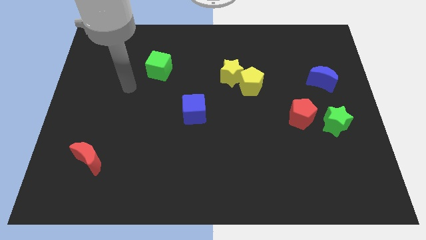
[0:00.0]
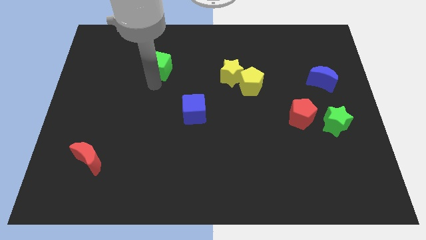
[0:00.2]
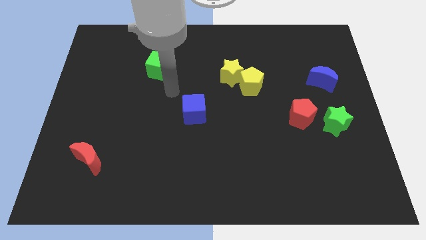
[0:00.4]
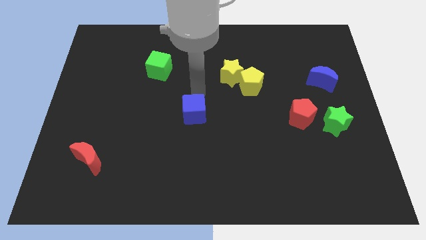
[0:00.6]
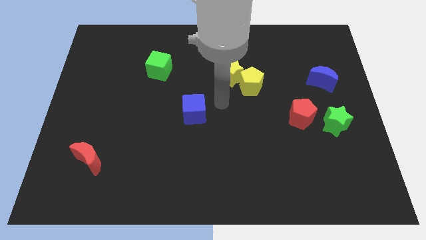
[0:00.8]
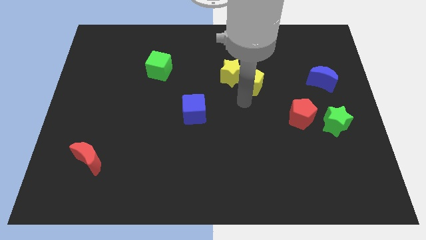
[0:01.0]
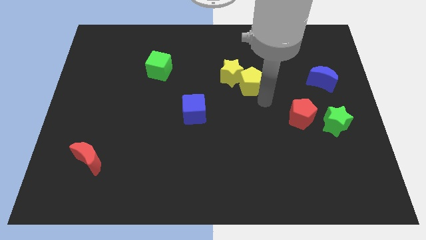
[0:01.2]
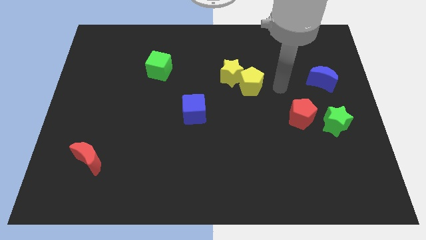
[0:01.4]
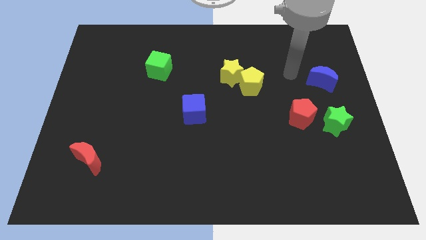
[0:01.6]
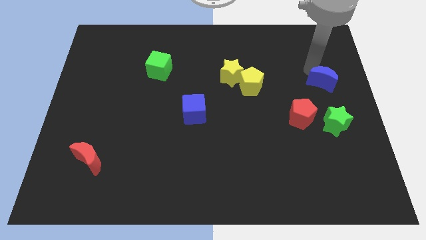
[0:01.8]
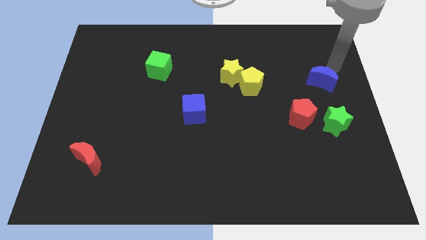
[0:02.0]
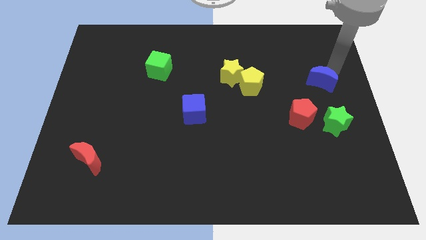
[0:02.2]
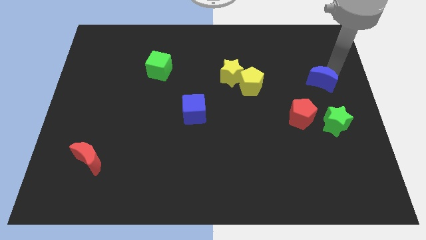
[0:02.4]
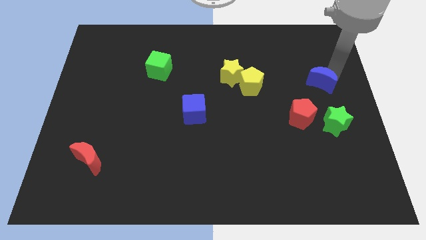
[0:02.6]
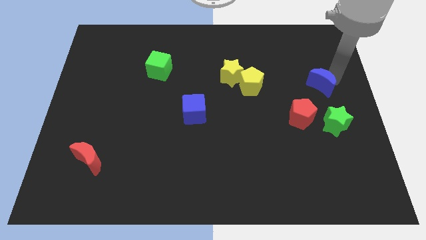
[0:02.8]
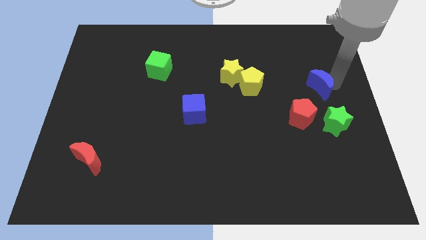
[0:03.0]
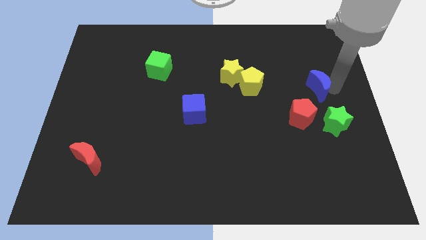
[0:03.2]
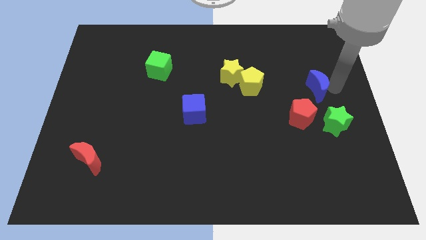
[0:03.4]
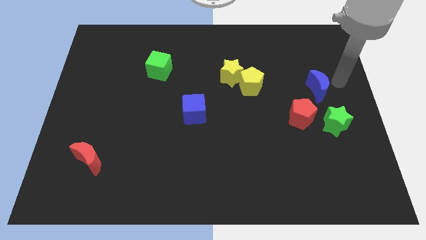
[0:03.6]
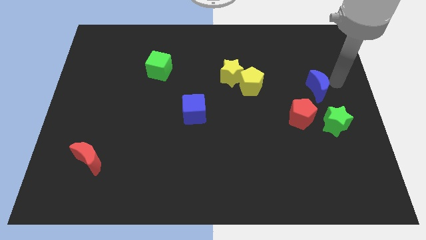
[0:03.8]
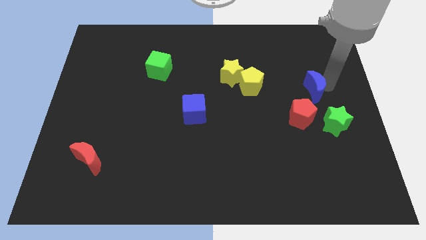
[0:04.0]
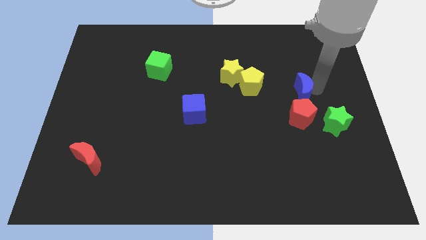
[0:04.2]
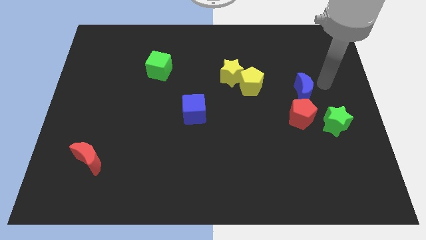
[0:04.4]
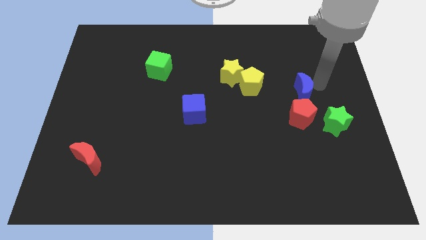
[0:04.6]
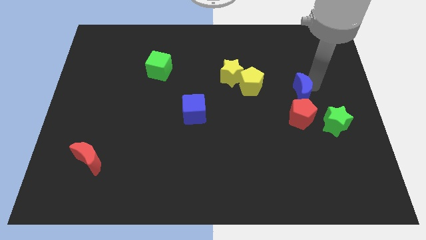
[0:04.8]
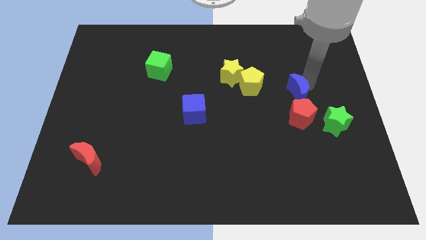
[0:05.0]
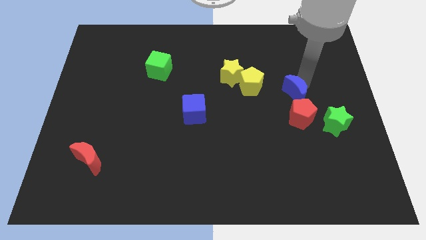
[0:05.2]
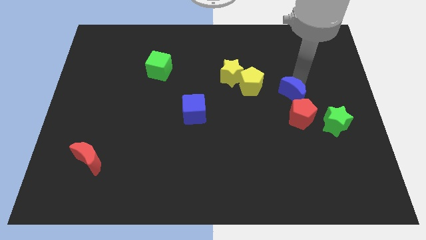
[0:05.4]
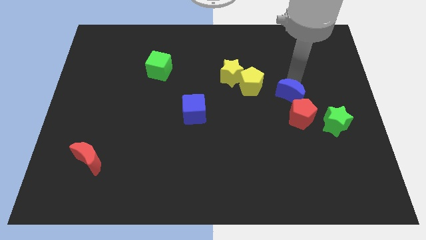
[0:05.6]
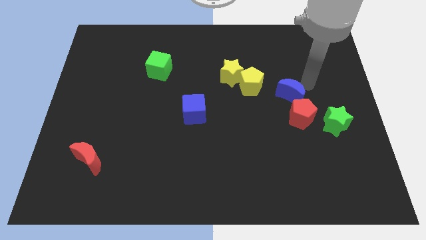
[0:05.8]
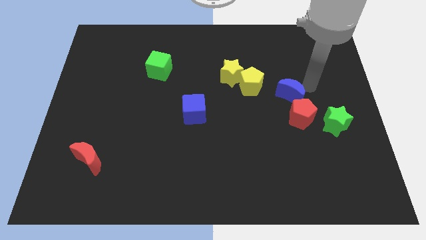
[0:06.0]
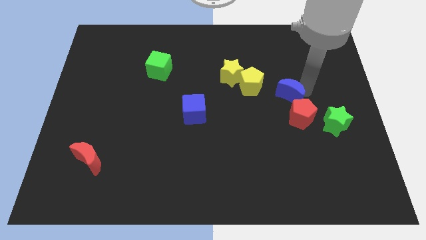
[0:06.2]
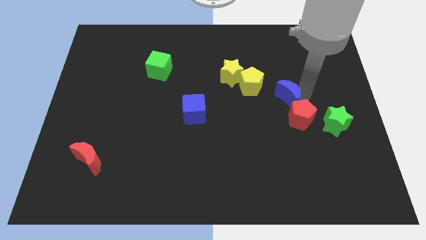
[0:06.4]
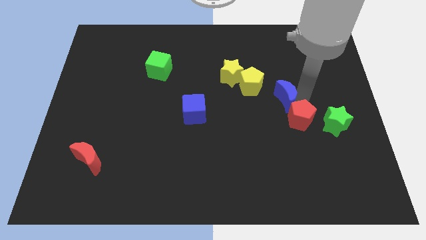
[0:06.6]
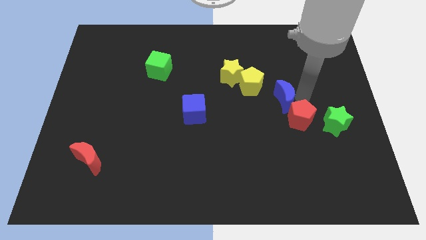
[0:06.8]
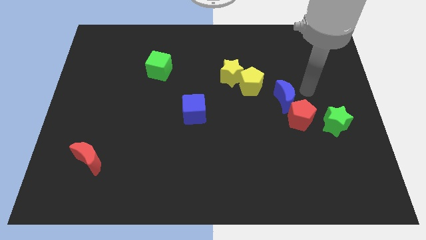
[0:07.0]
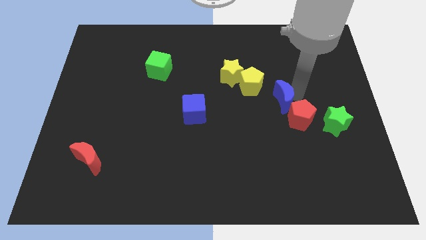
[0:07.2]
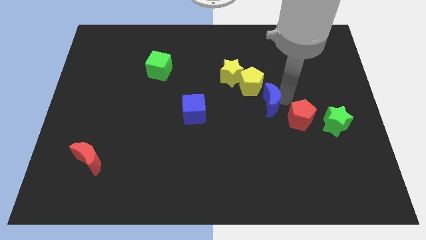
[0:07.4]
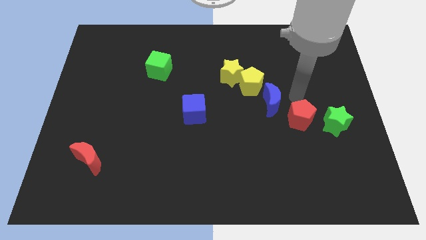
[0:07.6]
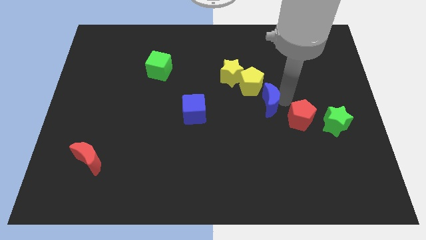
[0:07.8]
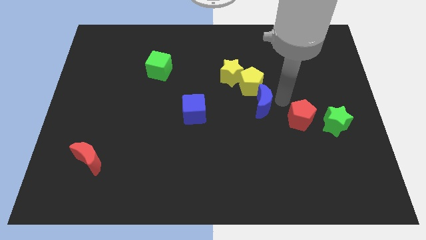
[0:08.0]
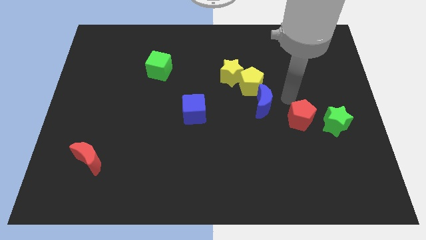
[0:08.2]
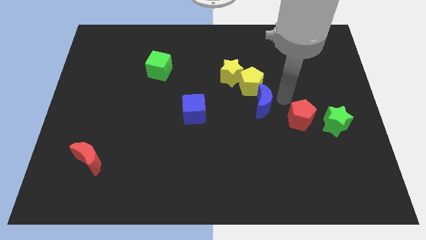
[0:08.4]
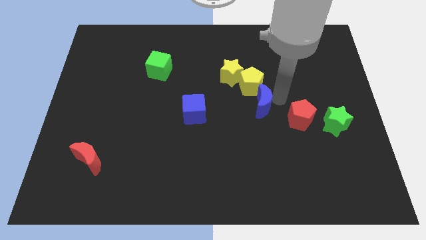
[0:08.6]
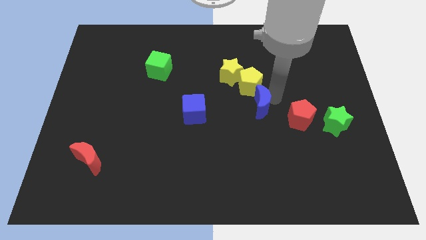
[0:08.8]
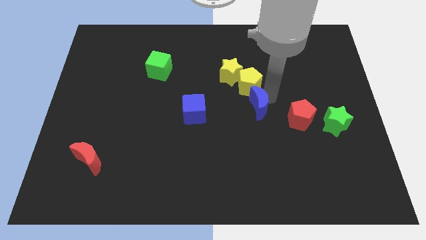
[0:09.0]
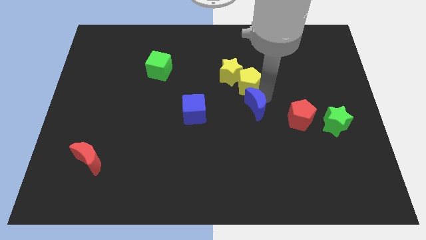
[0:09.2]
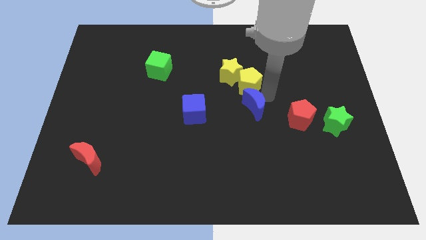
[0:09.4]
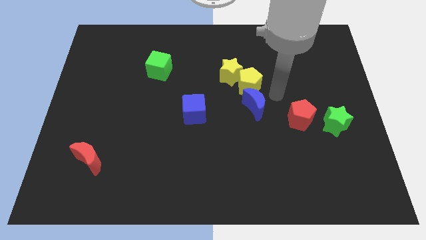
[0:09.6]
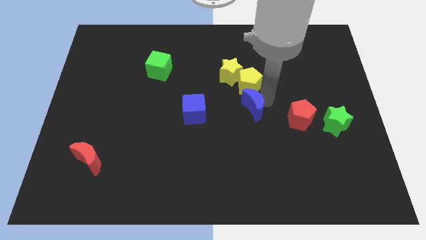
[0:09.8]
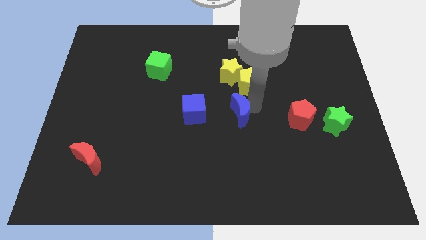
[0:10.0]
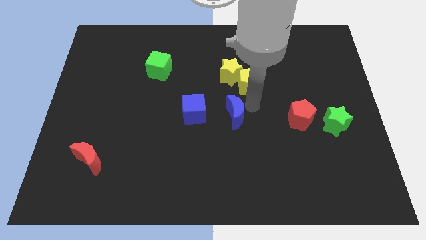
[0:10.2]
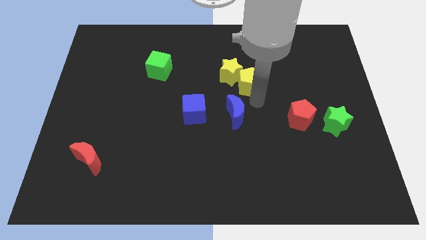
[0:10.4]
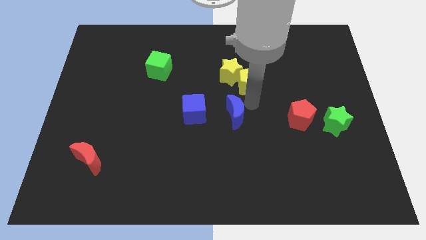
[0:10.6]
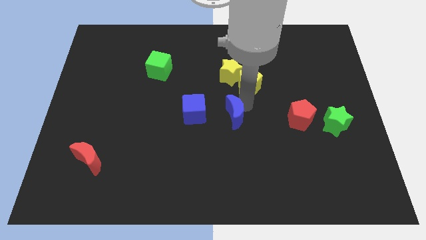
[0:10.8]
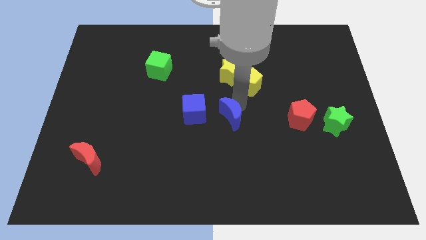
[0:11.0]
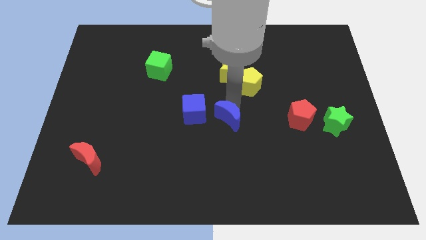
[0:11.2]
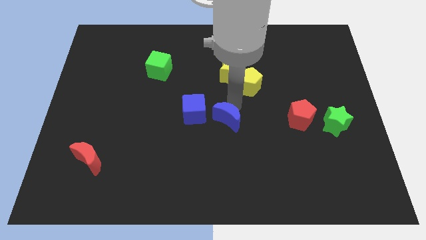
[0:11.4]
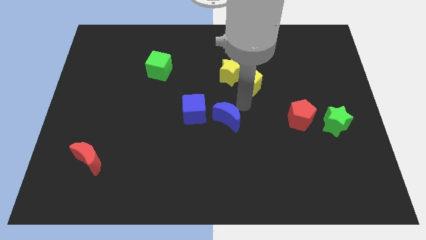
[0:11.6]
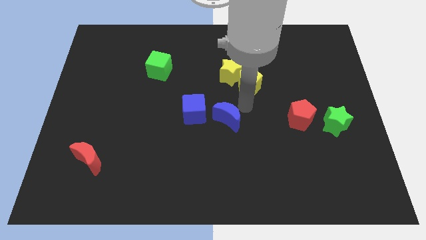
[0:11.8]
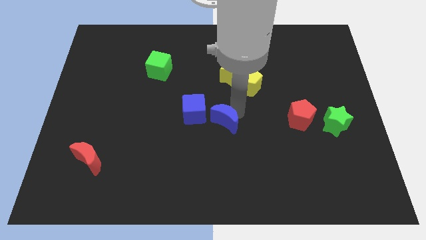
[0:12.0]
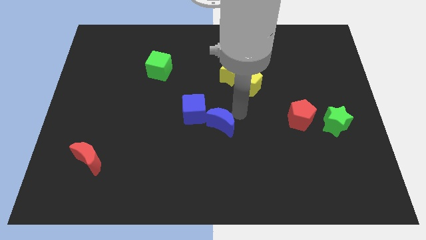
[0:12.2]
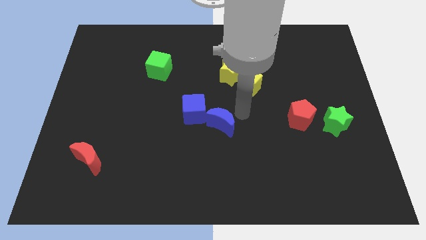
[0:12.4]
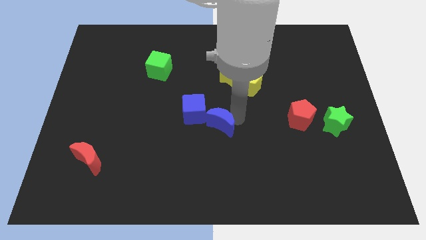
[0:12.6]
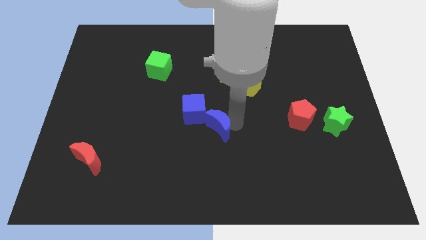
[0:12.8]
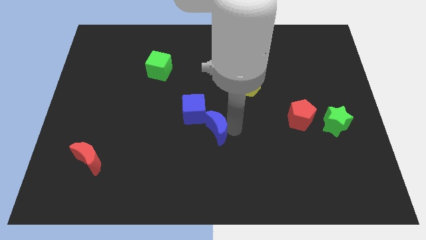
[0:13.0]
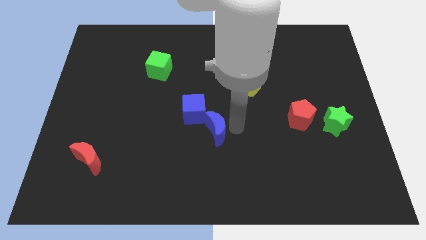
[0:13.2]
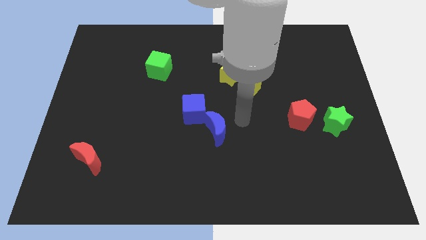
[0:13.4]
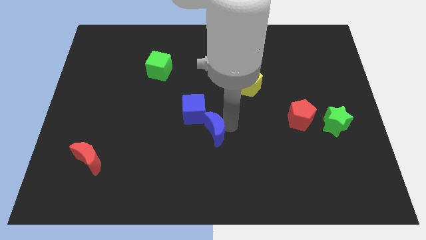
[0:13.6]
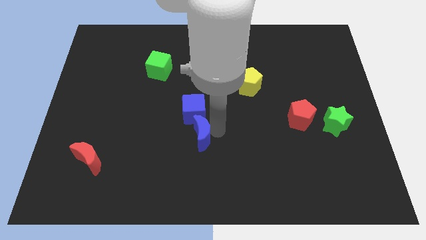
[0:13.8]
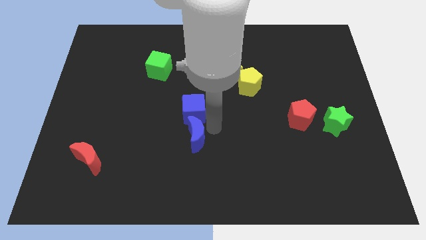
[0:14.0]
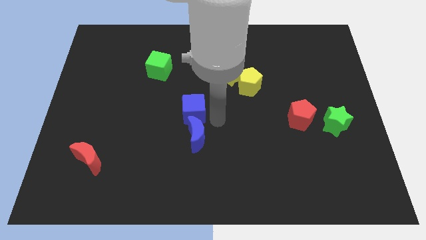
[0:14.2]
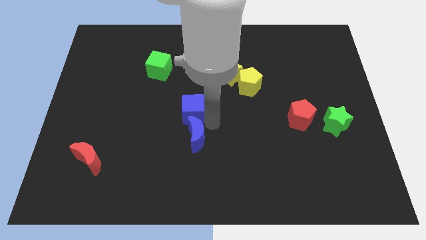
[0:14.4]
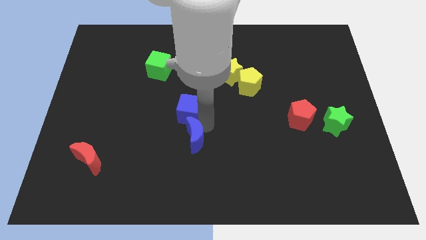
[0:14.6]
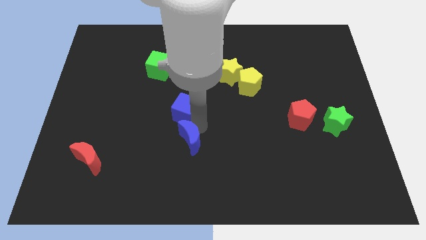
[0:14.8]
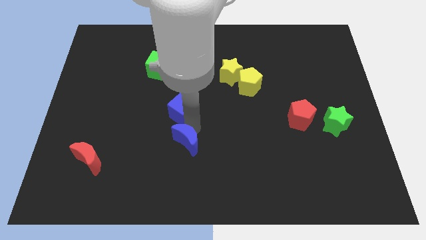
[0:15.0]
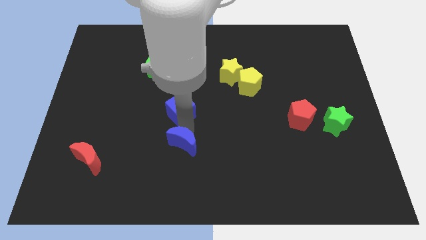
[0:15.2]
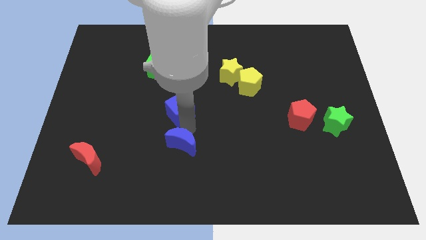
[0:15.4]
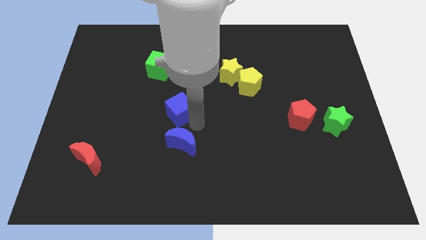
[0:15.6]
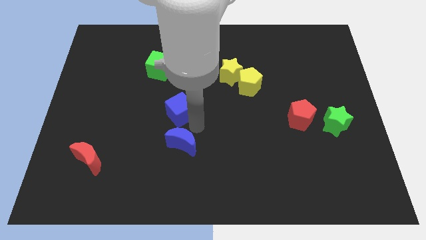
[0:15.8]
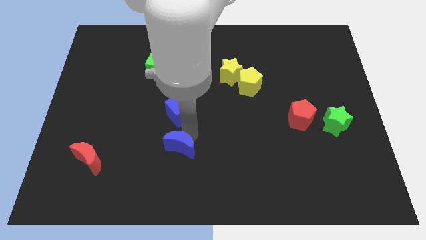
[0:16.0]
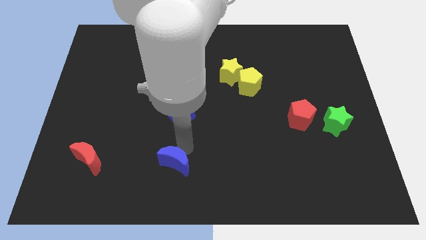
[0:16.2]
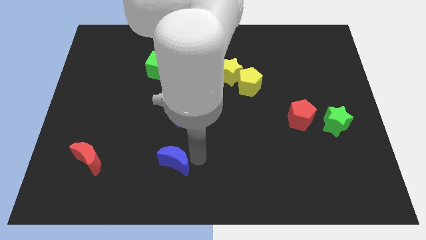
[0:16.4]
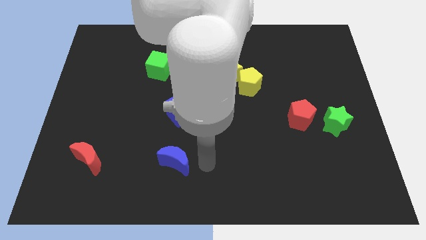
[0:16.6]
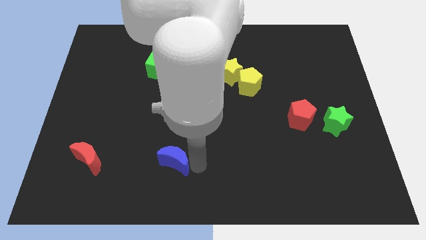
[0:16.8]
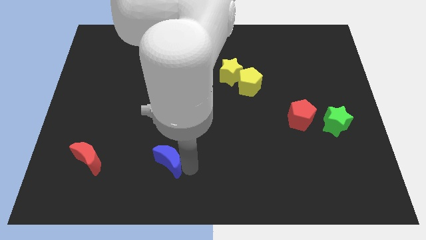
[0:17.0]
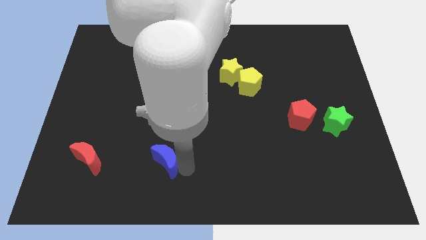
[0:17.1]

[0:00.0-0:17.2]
push the blue moon to the right of the red moon
